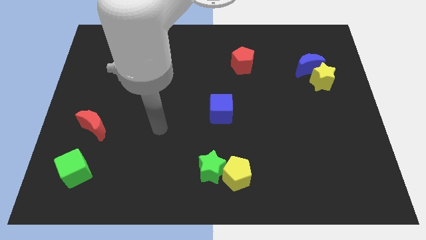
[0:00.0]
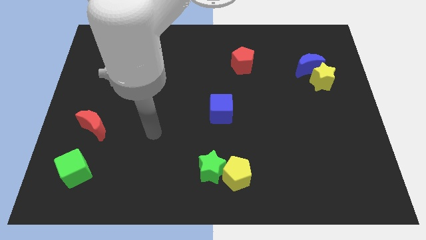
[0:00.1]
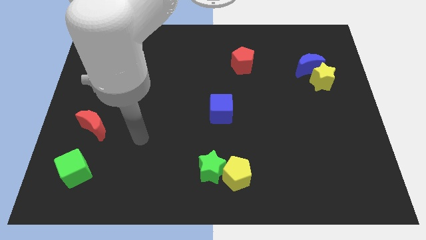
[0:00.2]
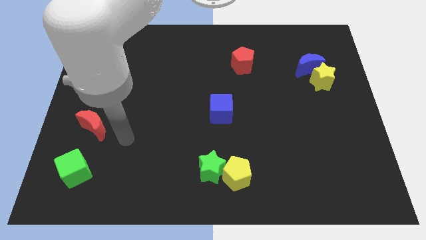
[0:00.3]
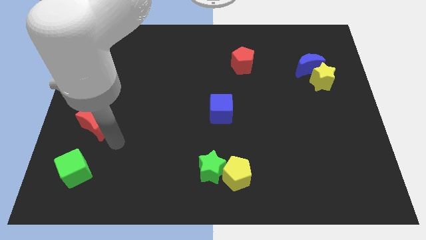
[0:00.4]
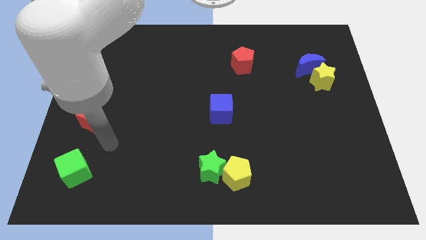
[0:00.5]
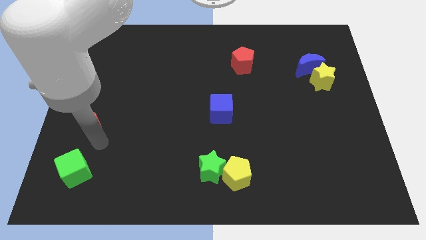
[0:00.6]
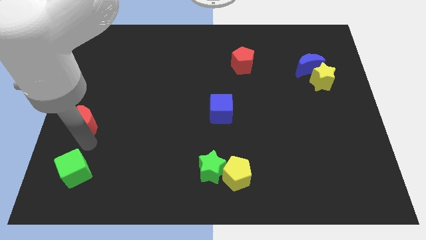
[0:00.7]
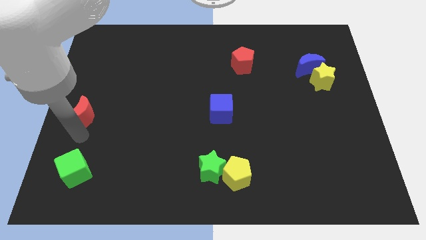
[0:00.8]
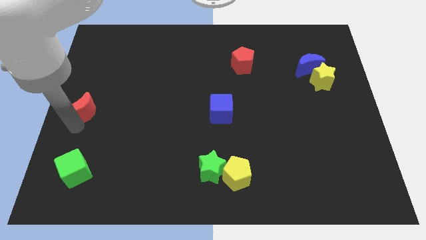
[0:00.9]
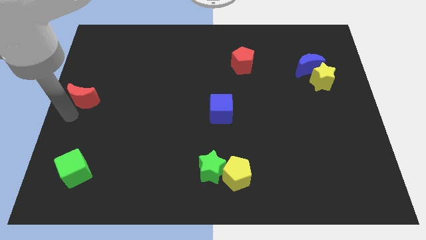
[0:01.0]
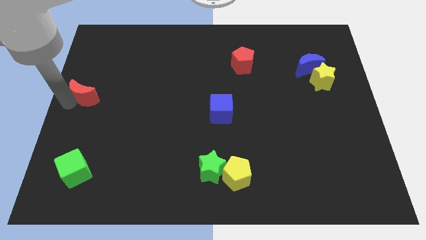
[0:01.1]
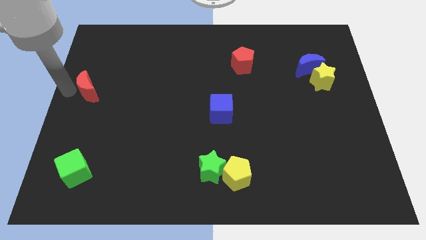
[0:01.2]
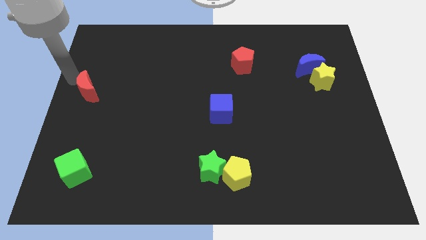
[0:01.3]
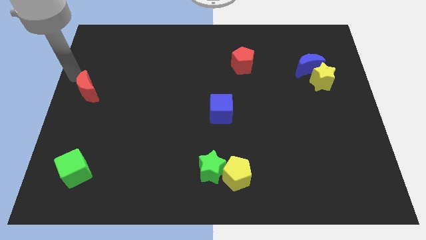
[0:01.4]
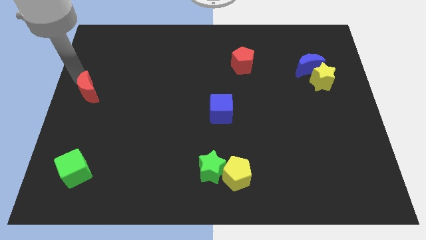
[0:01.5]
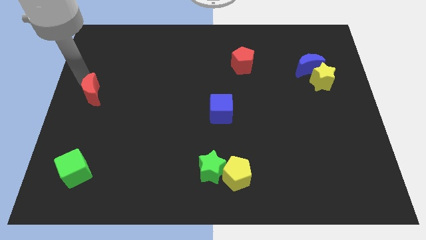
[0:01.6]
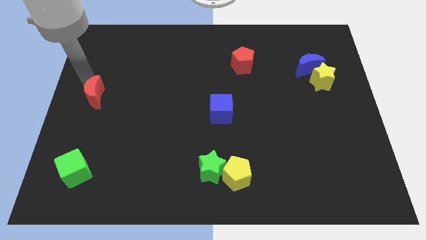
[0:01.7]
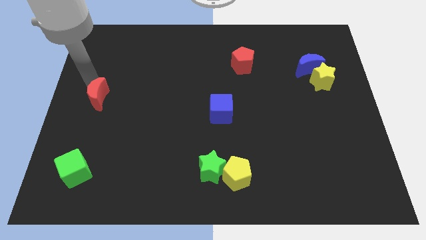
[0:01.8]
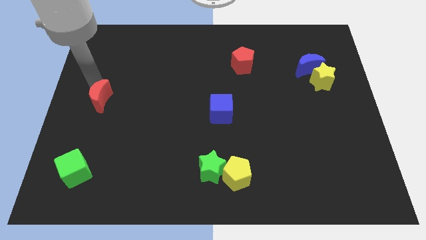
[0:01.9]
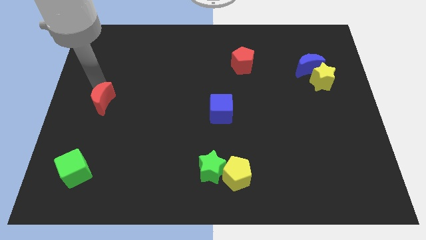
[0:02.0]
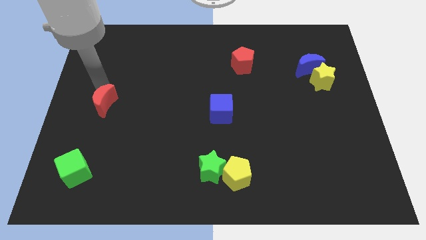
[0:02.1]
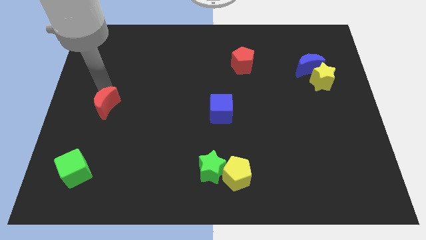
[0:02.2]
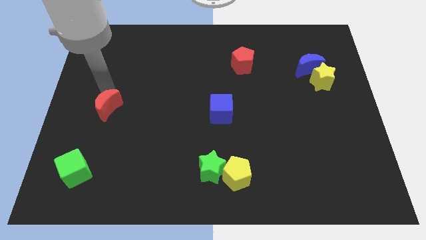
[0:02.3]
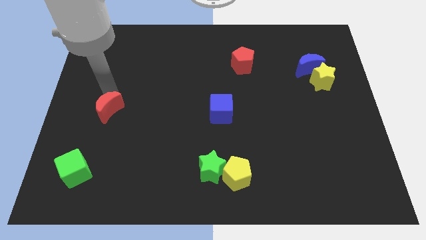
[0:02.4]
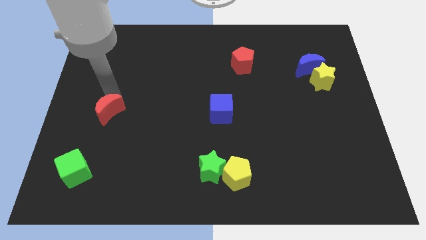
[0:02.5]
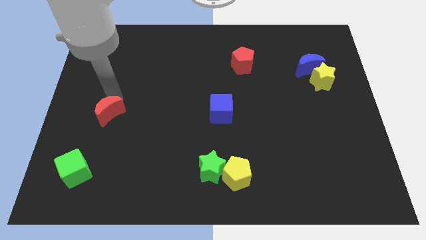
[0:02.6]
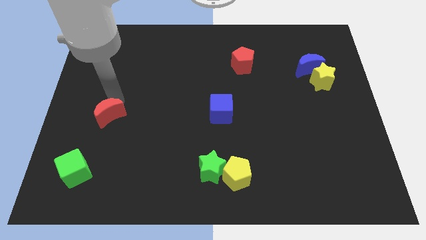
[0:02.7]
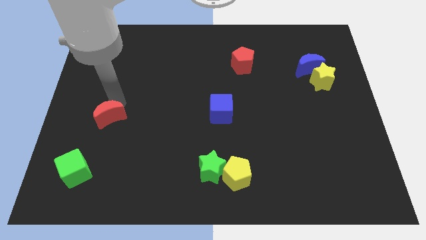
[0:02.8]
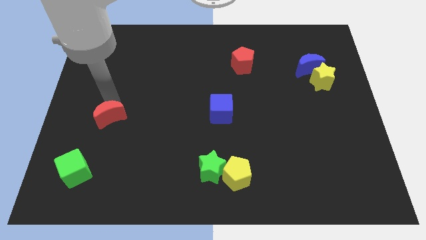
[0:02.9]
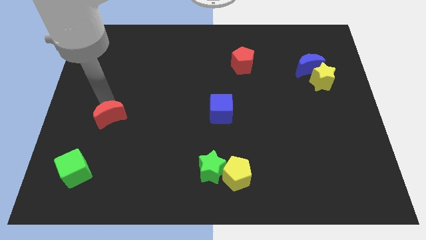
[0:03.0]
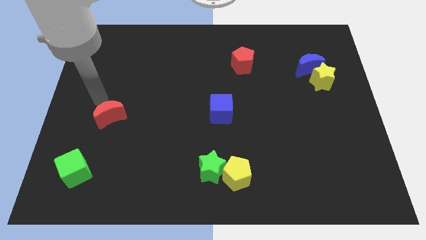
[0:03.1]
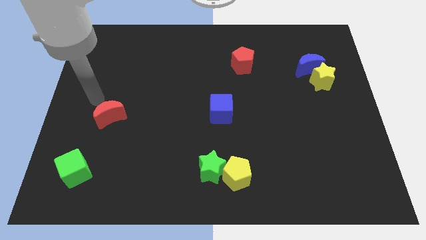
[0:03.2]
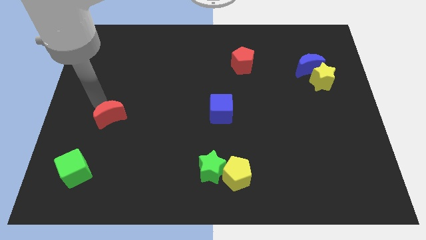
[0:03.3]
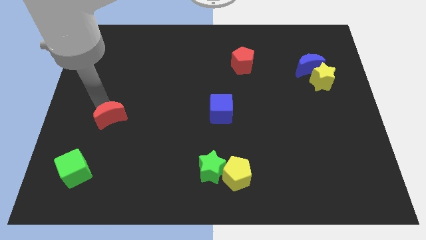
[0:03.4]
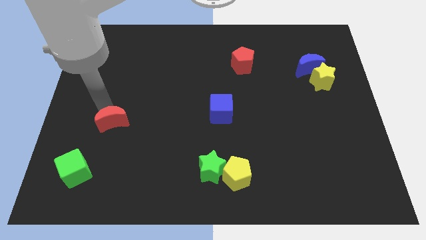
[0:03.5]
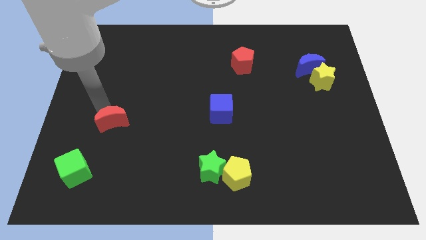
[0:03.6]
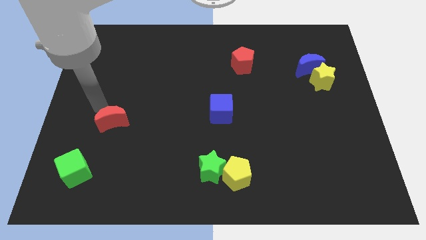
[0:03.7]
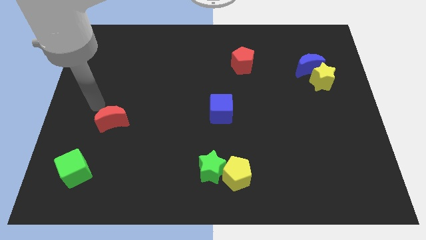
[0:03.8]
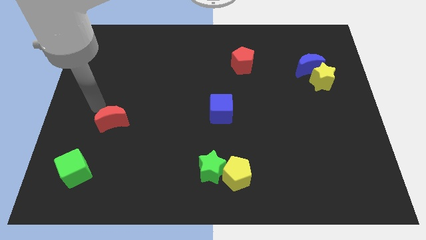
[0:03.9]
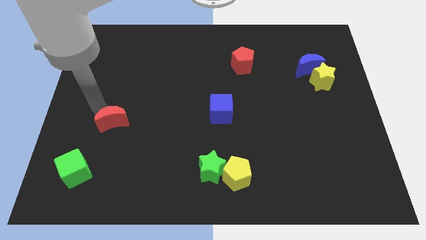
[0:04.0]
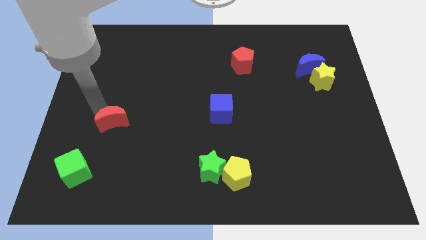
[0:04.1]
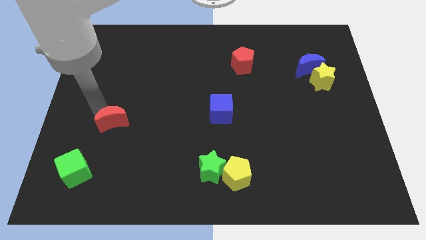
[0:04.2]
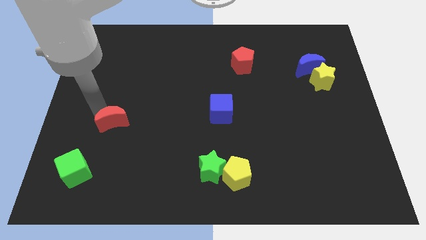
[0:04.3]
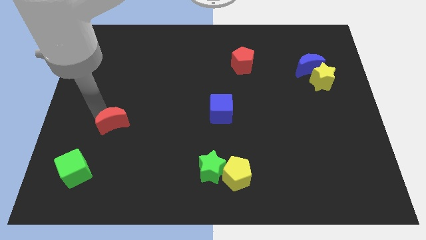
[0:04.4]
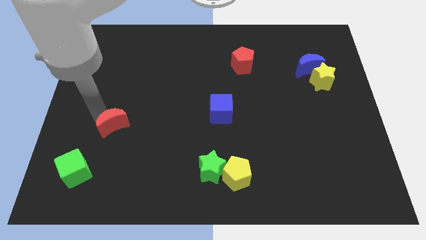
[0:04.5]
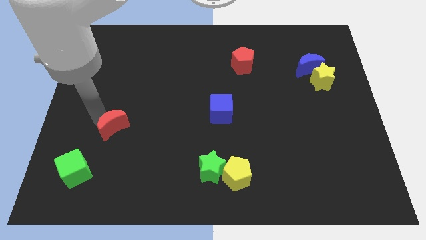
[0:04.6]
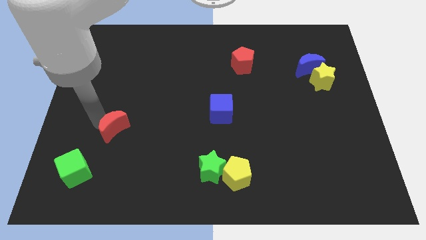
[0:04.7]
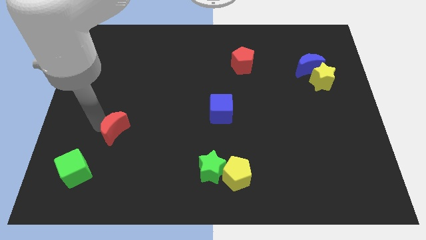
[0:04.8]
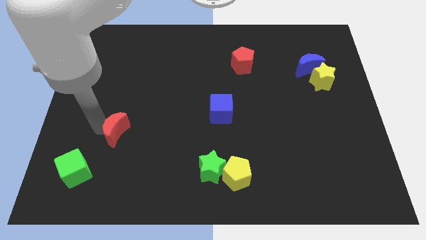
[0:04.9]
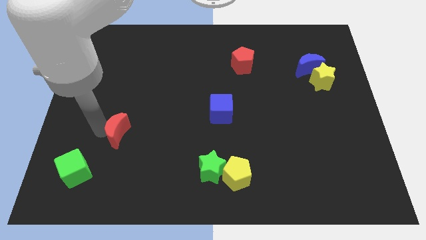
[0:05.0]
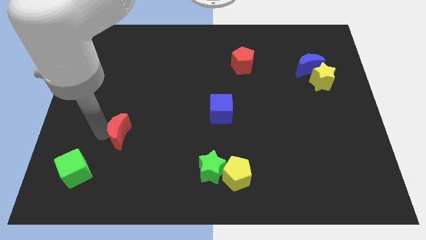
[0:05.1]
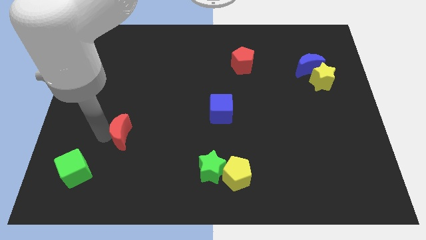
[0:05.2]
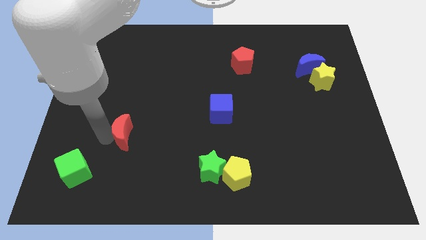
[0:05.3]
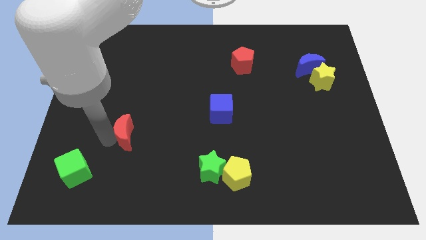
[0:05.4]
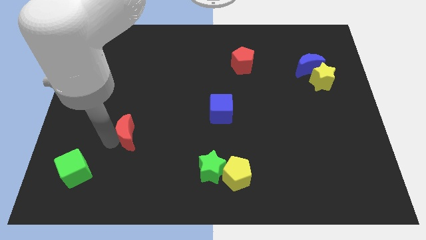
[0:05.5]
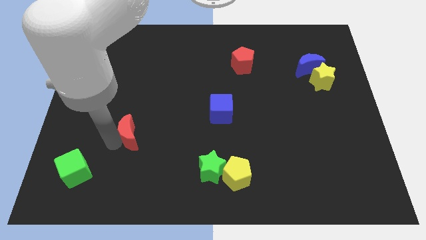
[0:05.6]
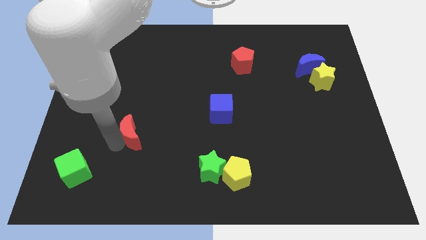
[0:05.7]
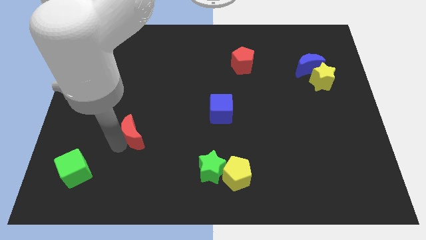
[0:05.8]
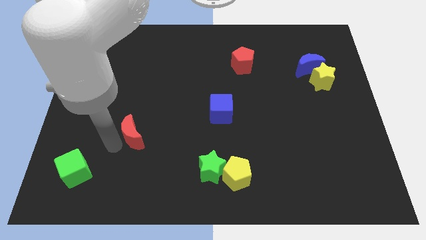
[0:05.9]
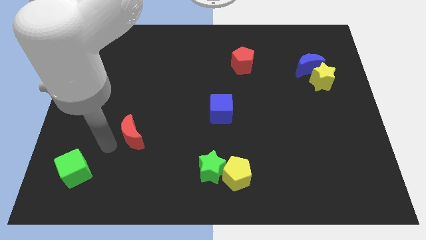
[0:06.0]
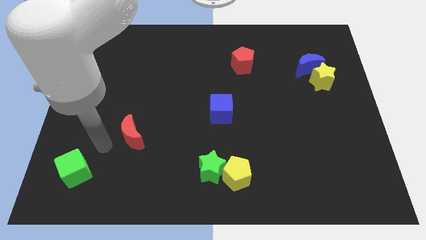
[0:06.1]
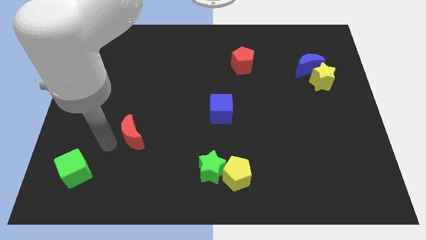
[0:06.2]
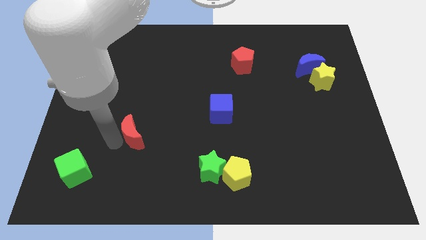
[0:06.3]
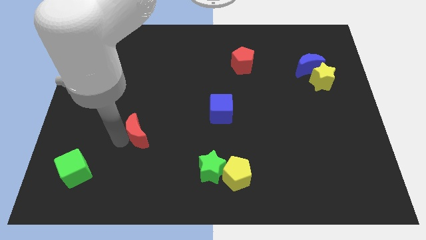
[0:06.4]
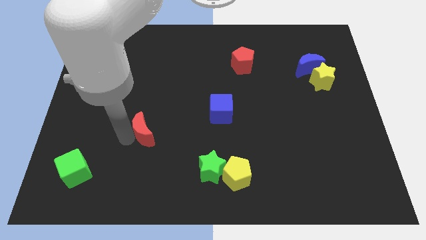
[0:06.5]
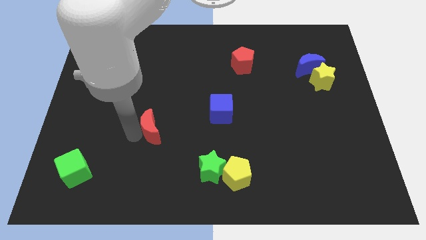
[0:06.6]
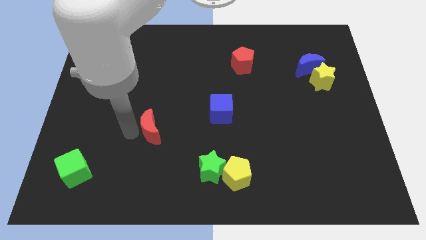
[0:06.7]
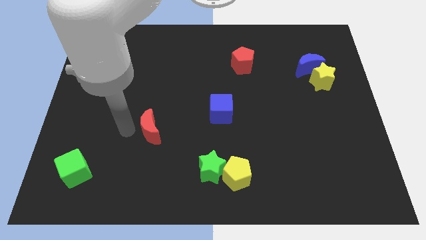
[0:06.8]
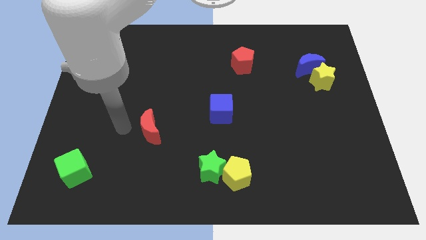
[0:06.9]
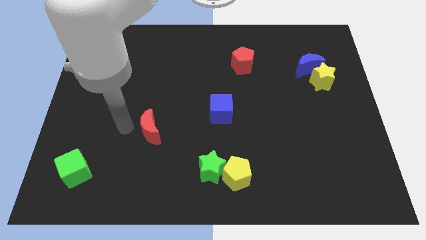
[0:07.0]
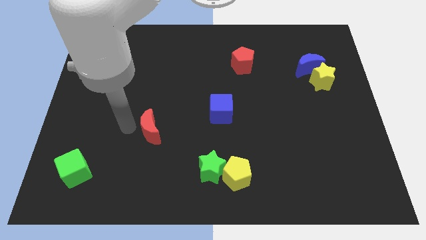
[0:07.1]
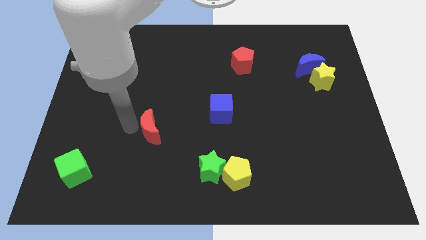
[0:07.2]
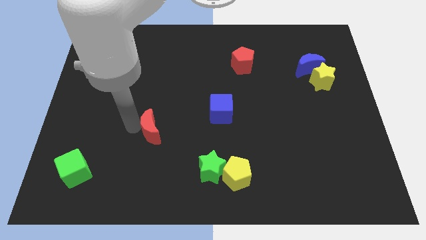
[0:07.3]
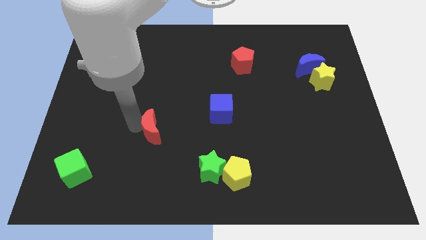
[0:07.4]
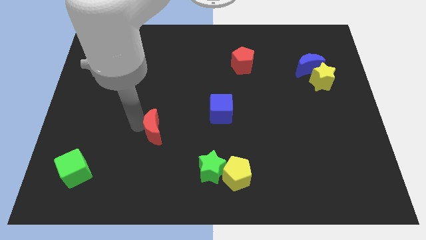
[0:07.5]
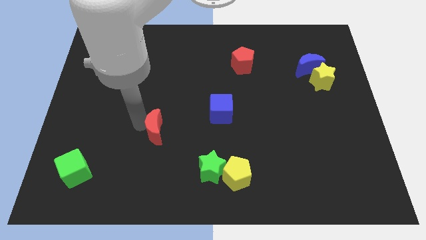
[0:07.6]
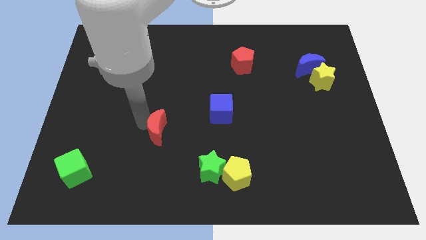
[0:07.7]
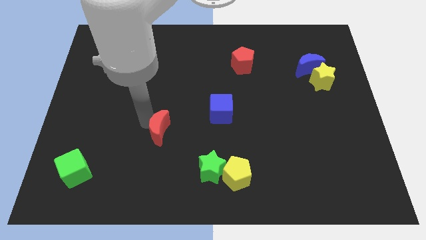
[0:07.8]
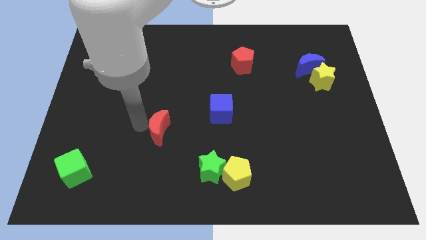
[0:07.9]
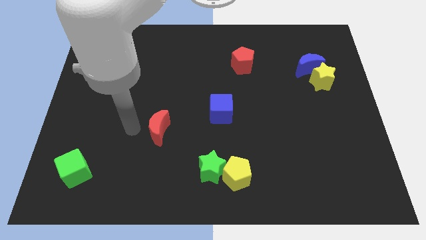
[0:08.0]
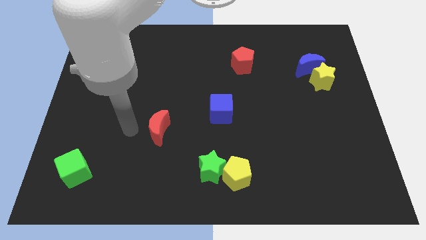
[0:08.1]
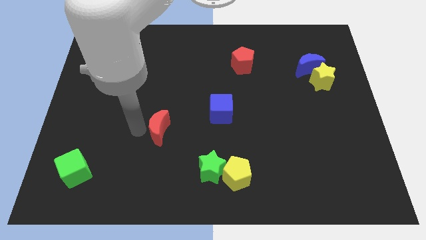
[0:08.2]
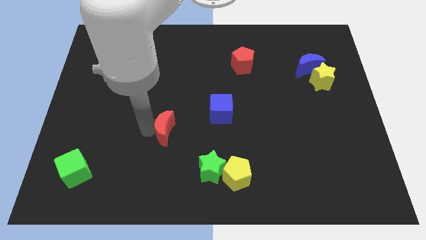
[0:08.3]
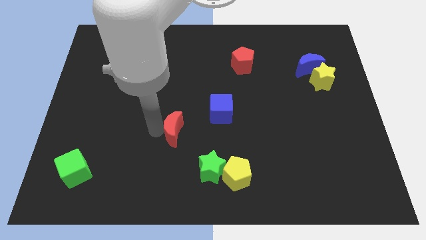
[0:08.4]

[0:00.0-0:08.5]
slide the red moon to the bottom left side of the blue cube
